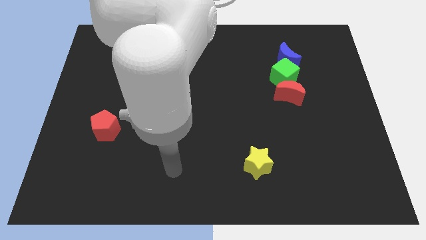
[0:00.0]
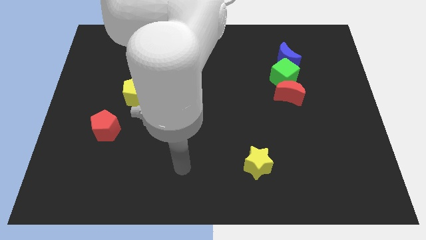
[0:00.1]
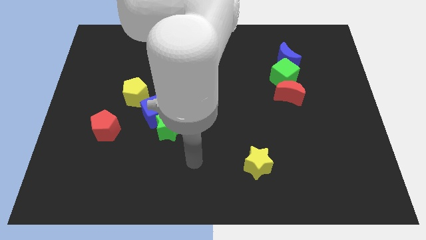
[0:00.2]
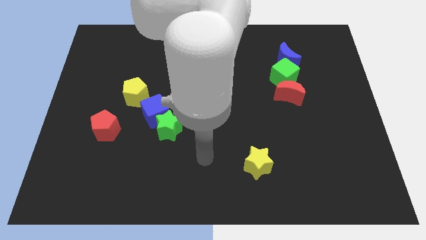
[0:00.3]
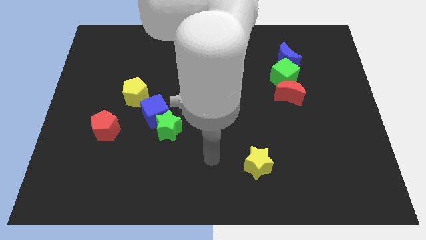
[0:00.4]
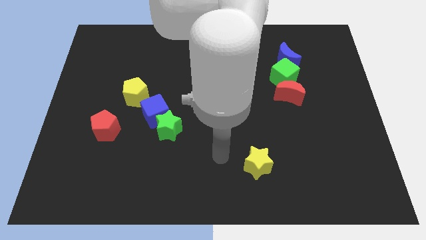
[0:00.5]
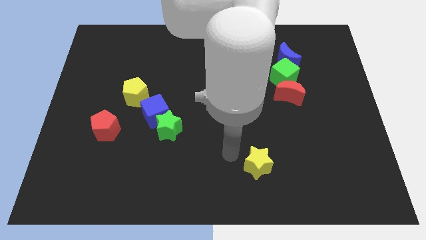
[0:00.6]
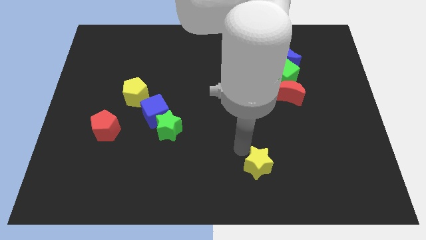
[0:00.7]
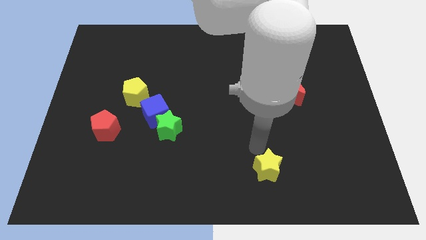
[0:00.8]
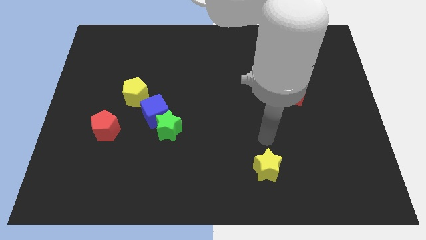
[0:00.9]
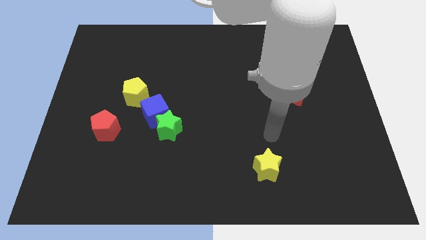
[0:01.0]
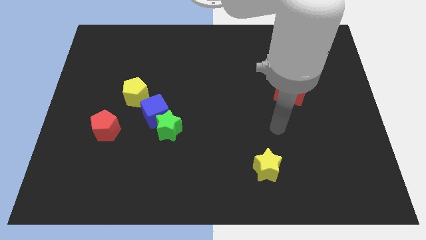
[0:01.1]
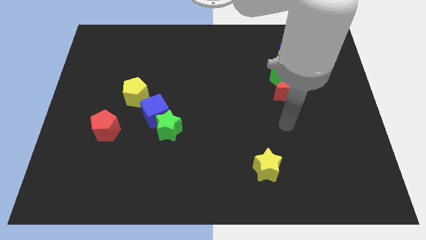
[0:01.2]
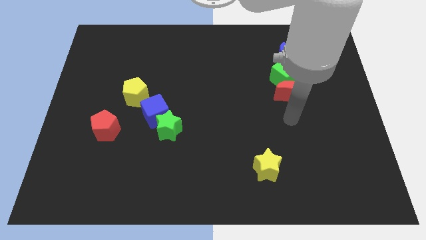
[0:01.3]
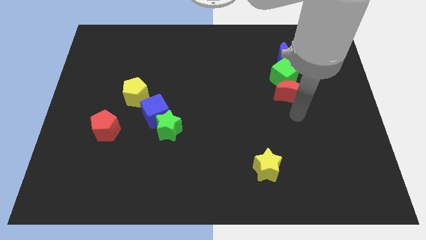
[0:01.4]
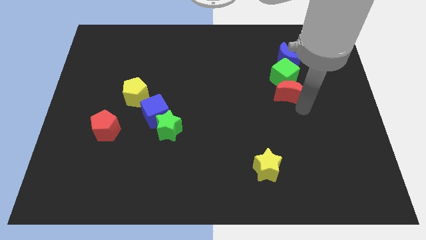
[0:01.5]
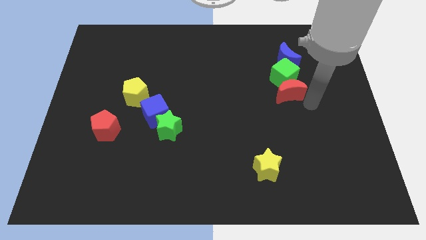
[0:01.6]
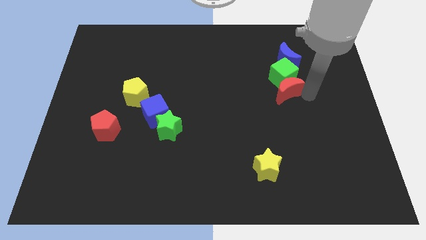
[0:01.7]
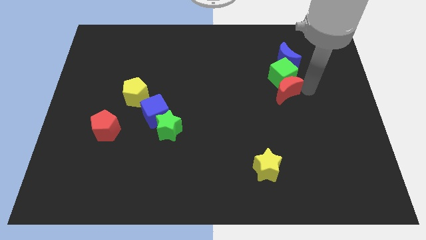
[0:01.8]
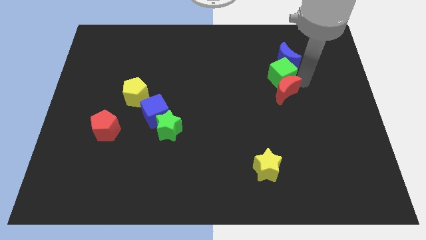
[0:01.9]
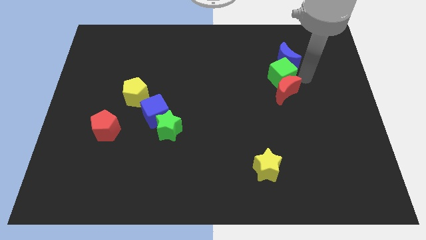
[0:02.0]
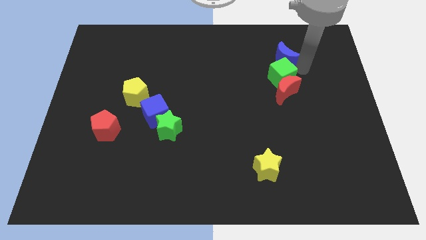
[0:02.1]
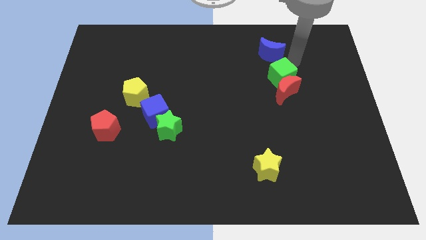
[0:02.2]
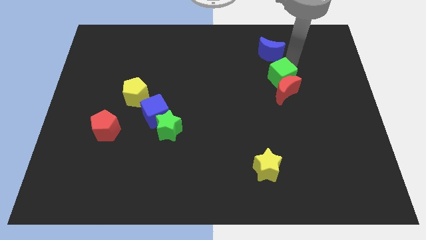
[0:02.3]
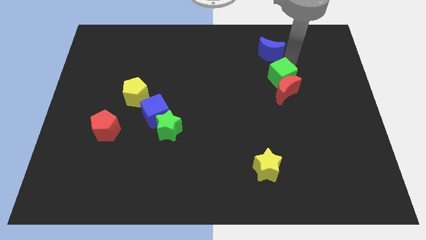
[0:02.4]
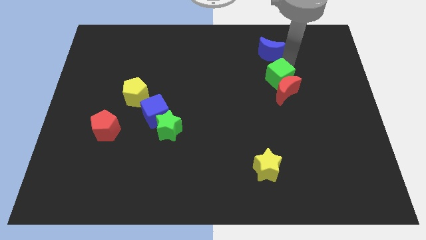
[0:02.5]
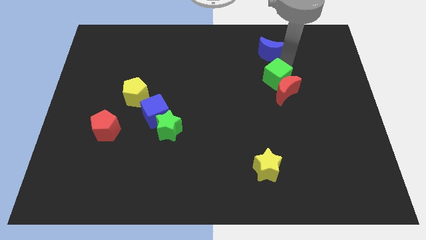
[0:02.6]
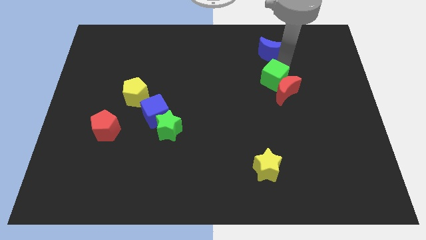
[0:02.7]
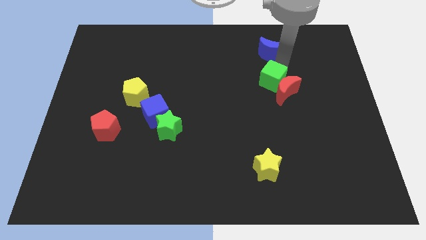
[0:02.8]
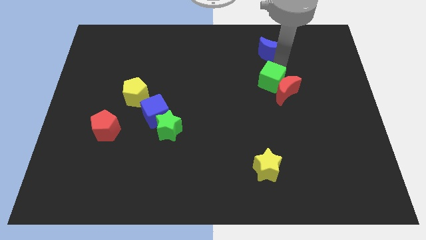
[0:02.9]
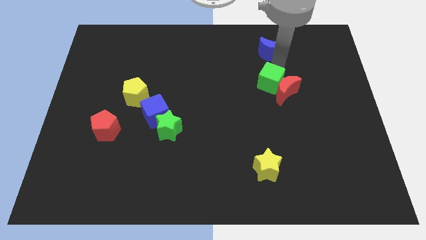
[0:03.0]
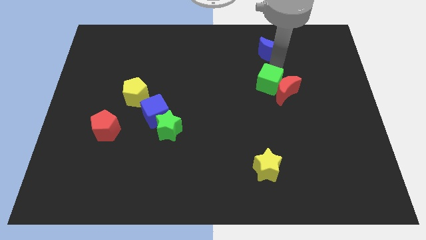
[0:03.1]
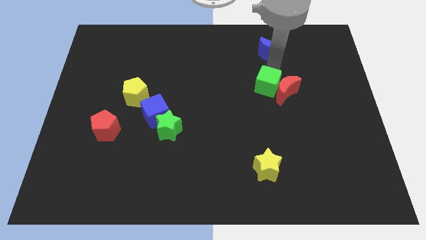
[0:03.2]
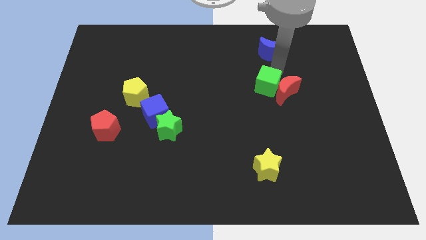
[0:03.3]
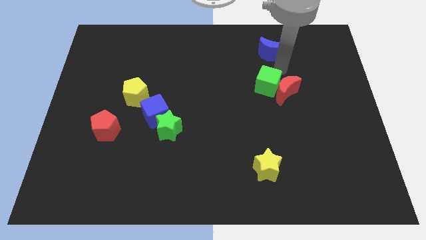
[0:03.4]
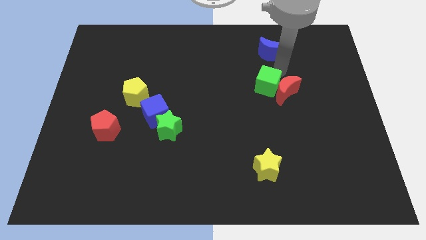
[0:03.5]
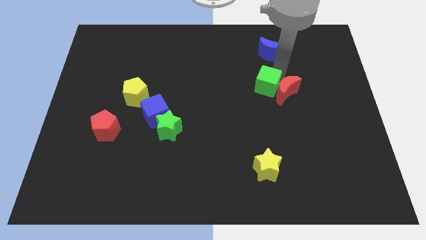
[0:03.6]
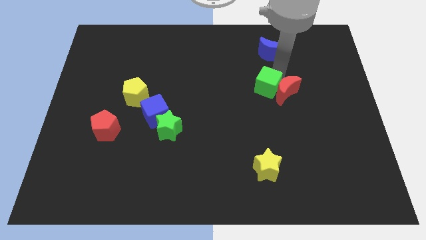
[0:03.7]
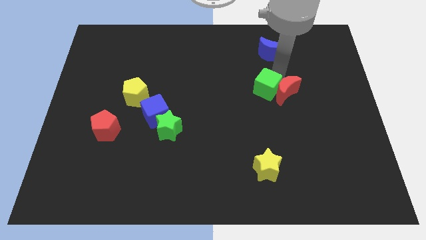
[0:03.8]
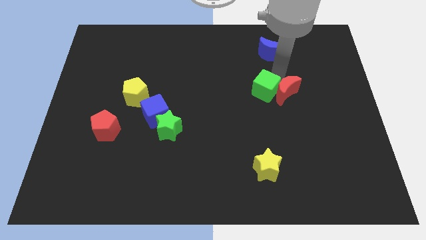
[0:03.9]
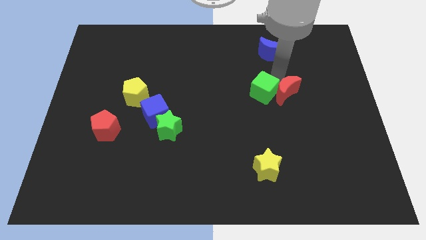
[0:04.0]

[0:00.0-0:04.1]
push the green cube somewhat downwards and then left

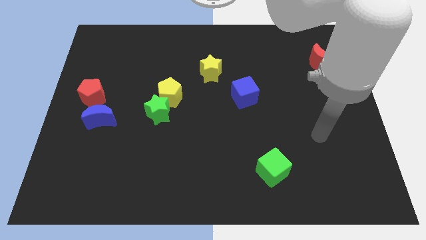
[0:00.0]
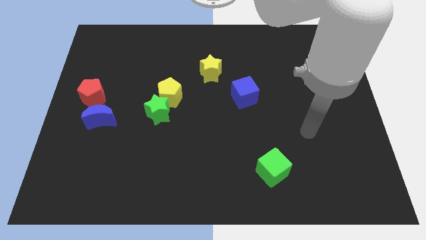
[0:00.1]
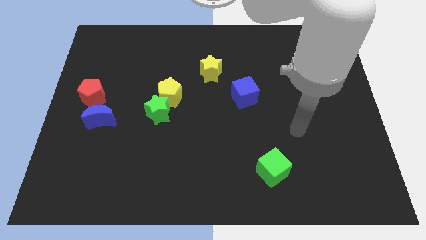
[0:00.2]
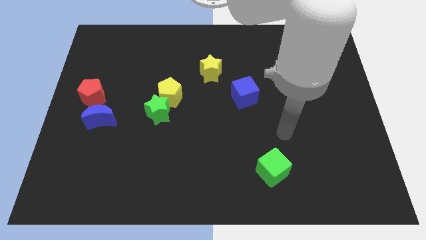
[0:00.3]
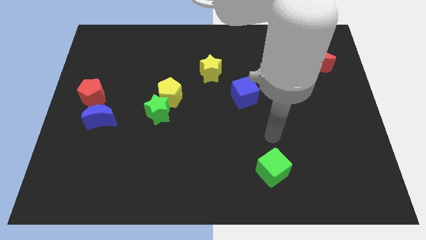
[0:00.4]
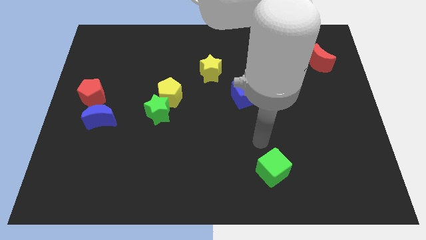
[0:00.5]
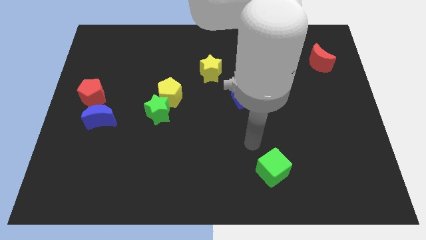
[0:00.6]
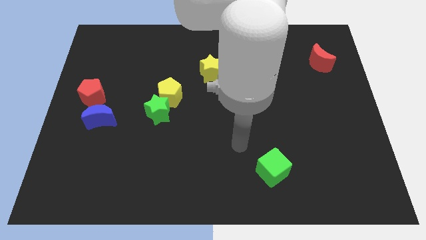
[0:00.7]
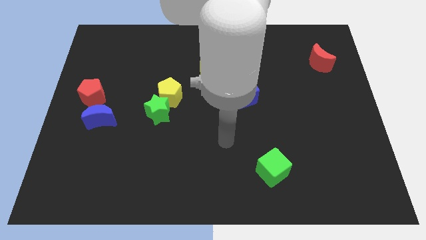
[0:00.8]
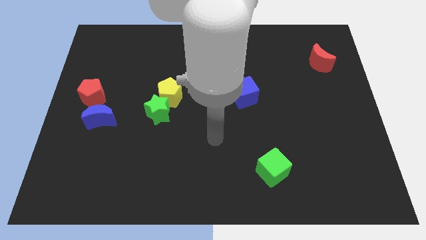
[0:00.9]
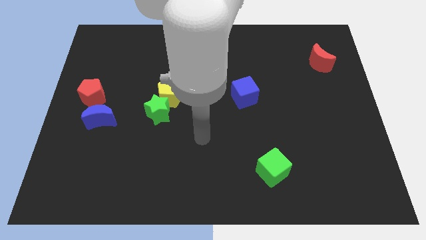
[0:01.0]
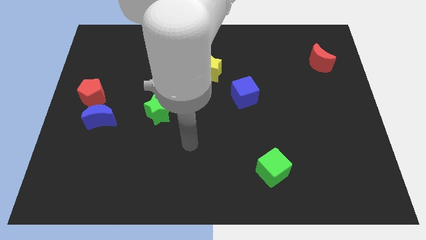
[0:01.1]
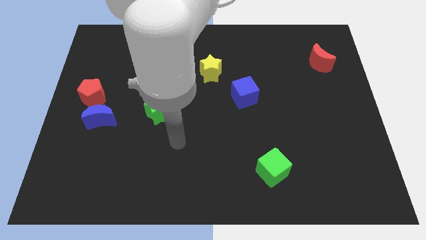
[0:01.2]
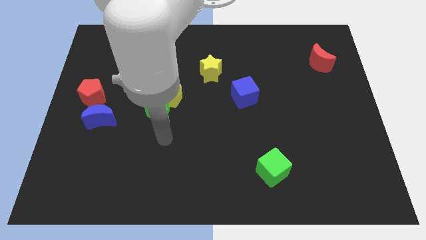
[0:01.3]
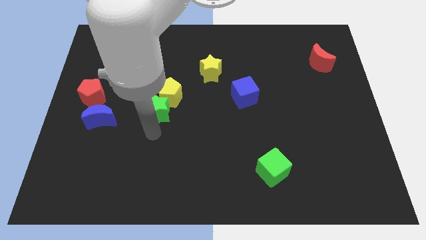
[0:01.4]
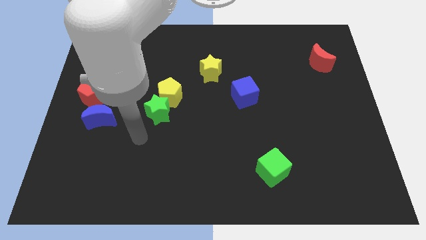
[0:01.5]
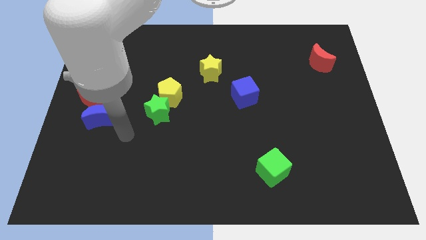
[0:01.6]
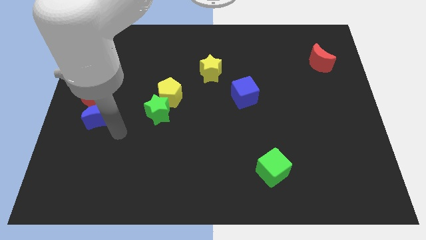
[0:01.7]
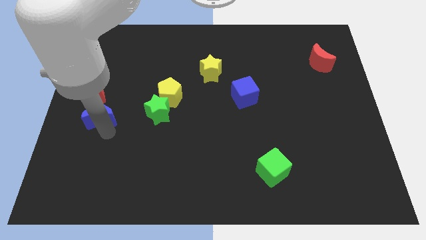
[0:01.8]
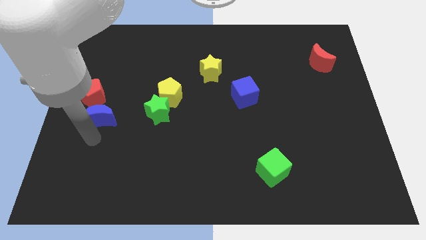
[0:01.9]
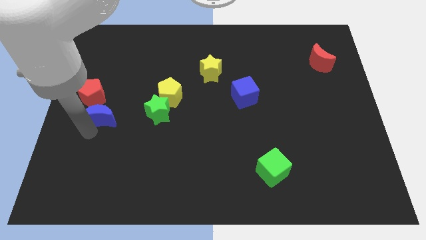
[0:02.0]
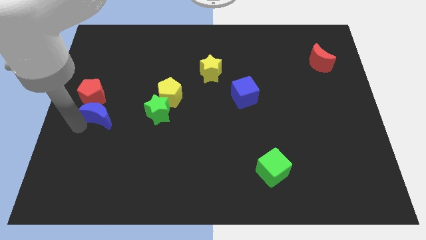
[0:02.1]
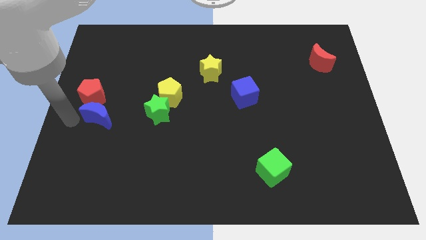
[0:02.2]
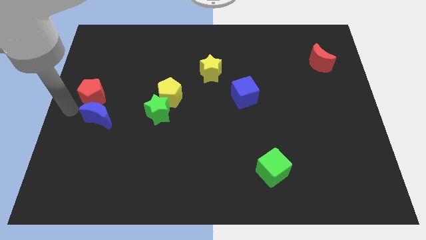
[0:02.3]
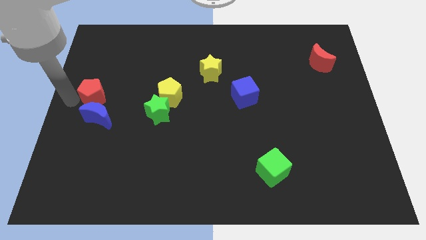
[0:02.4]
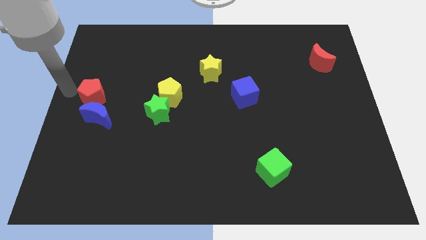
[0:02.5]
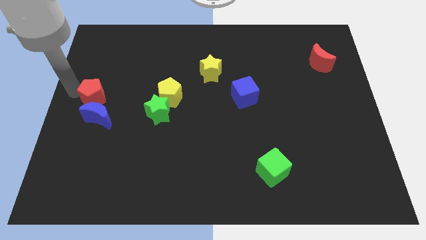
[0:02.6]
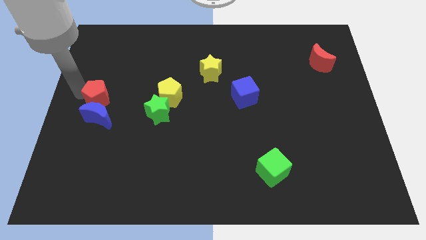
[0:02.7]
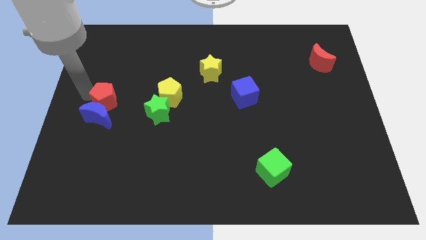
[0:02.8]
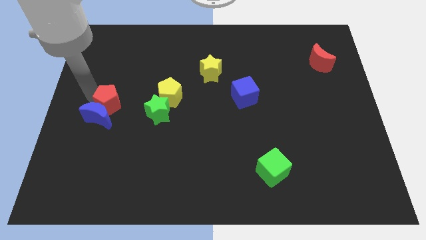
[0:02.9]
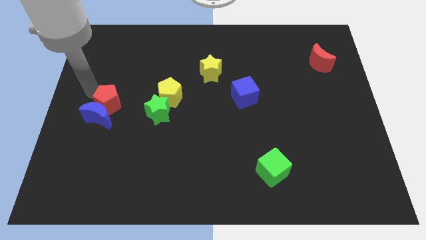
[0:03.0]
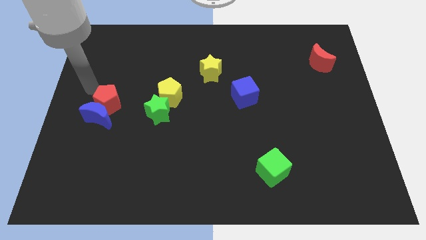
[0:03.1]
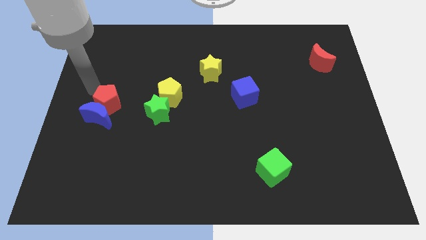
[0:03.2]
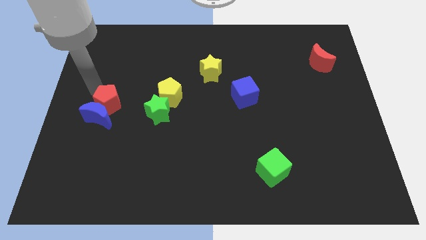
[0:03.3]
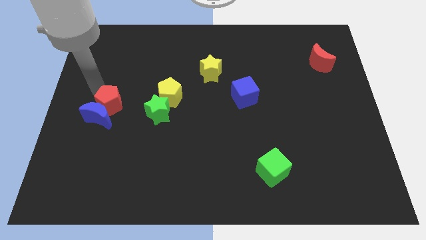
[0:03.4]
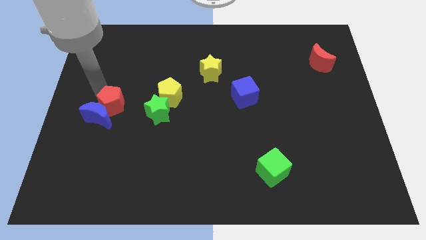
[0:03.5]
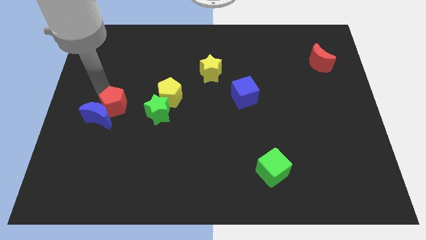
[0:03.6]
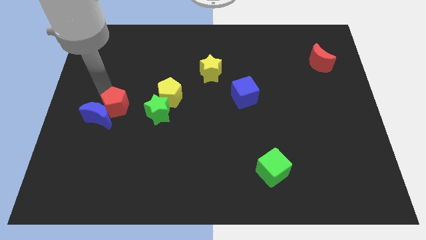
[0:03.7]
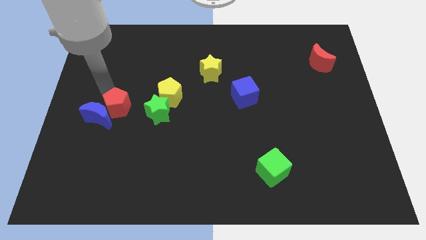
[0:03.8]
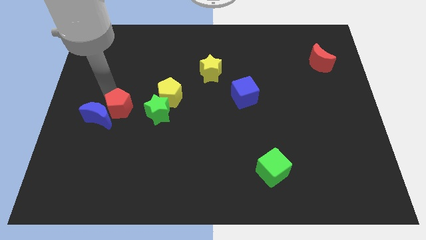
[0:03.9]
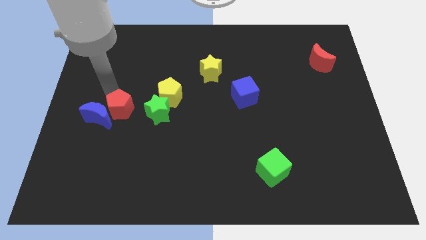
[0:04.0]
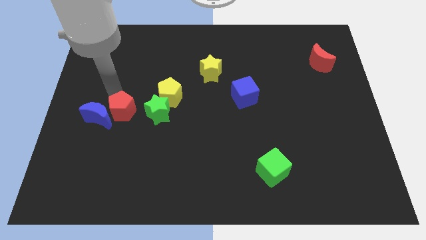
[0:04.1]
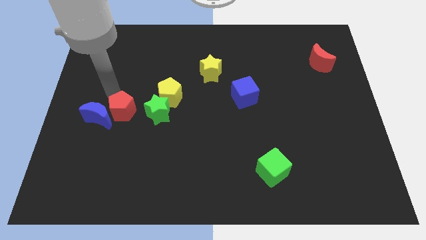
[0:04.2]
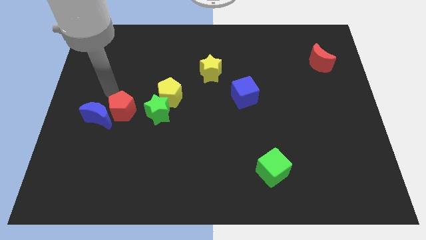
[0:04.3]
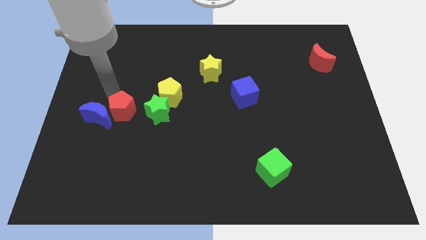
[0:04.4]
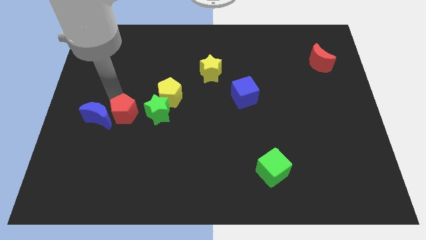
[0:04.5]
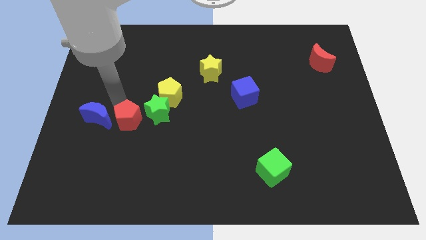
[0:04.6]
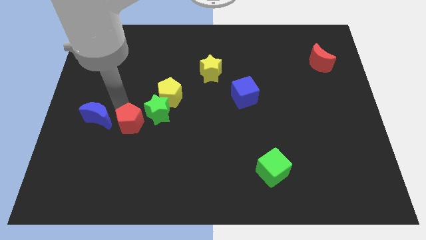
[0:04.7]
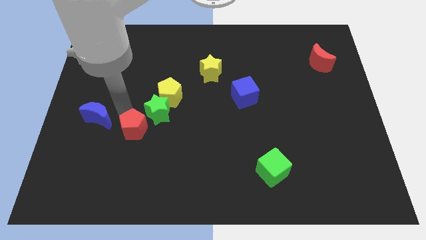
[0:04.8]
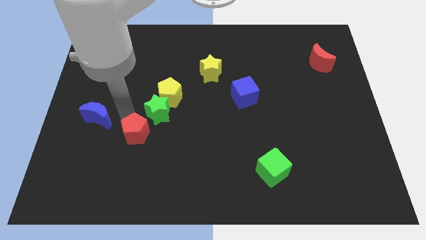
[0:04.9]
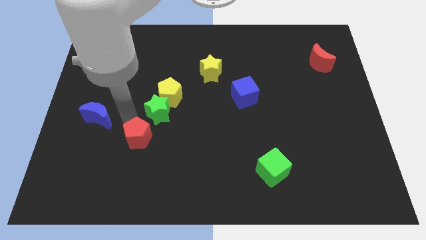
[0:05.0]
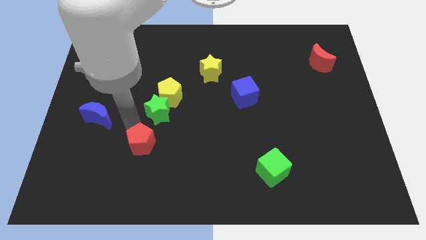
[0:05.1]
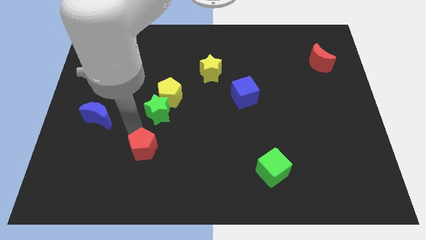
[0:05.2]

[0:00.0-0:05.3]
push the red pentagon downwards and right
